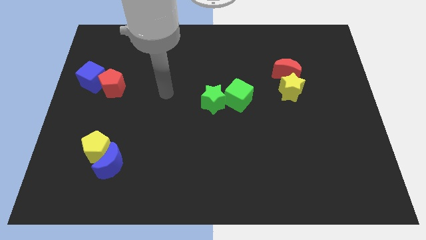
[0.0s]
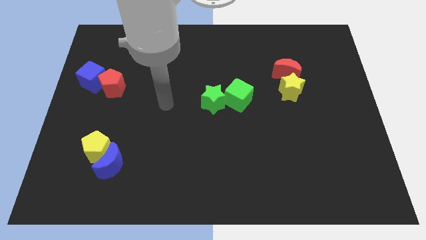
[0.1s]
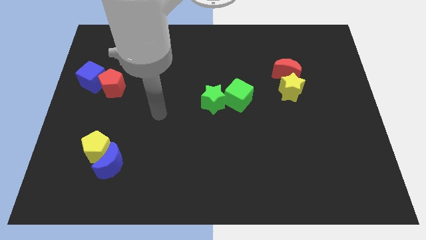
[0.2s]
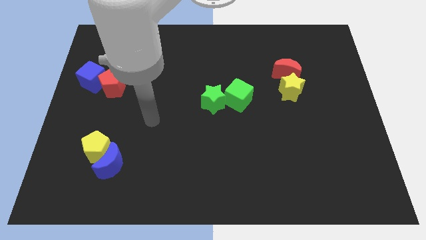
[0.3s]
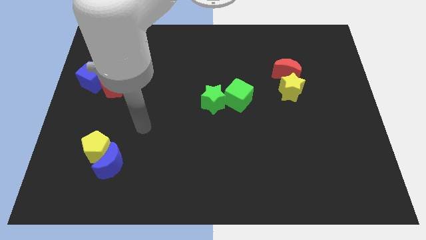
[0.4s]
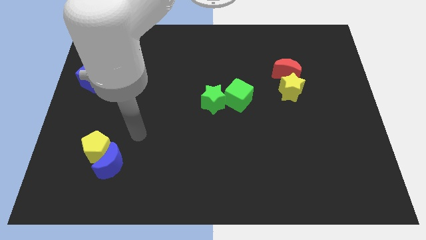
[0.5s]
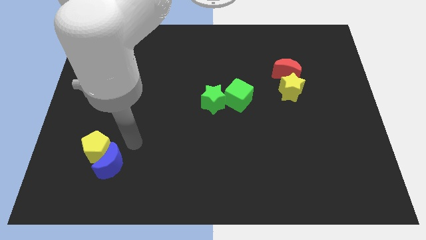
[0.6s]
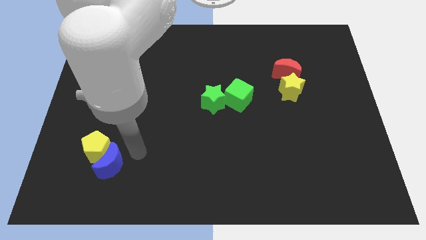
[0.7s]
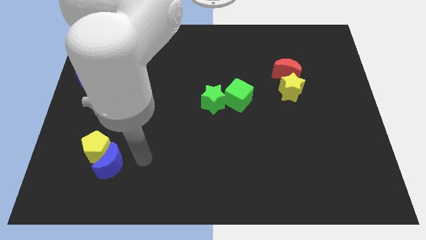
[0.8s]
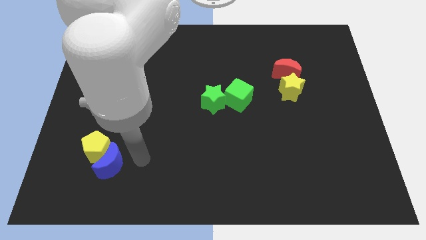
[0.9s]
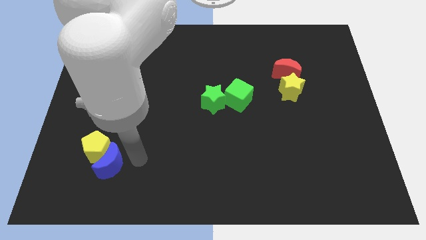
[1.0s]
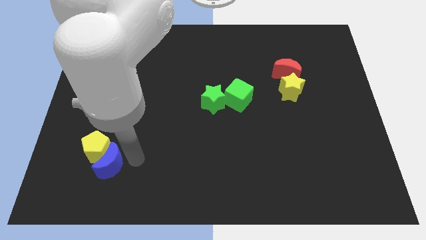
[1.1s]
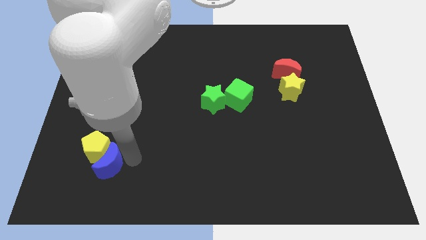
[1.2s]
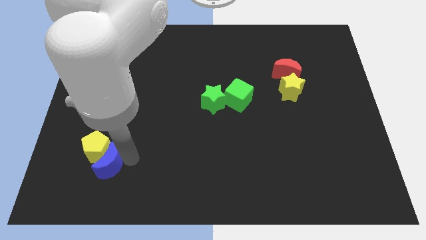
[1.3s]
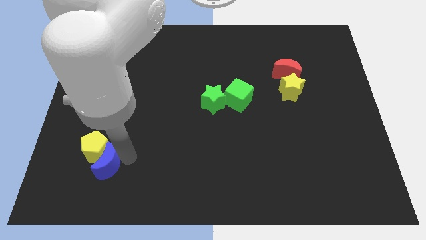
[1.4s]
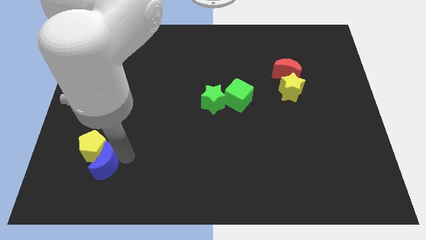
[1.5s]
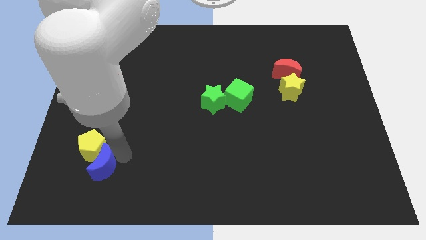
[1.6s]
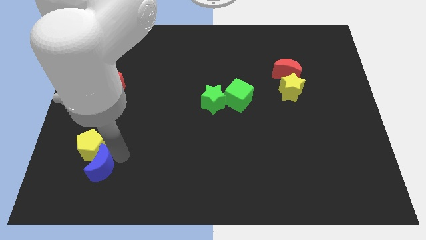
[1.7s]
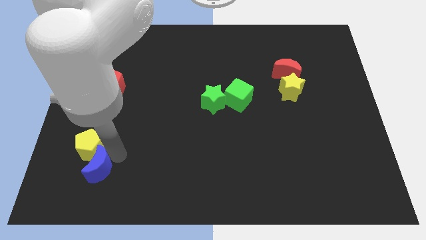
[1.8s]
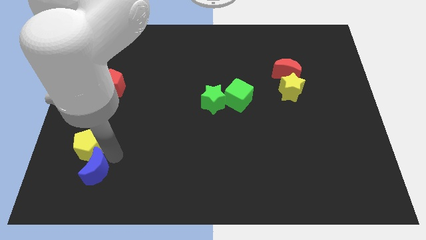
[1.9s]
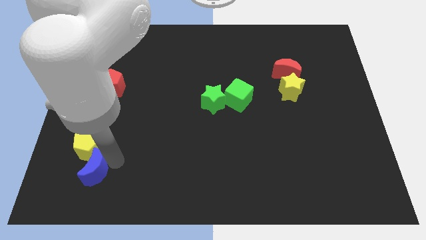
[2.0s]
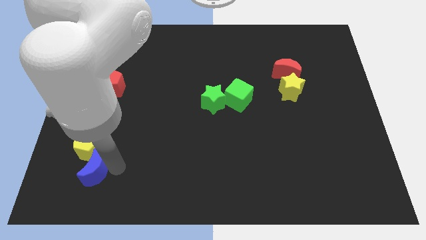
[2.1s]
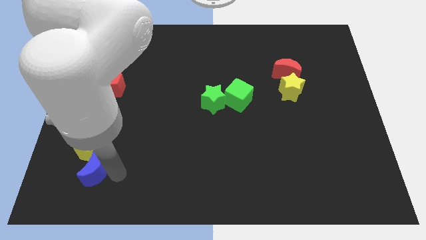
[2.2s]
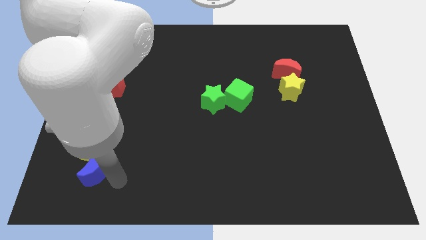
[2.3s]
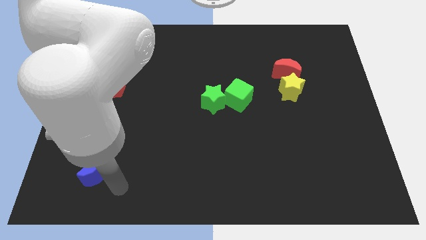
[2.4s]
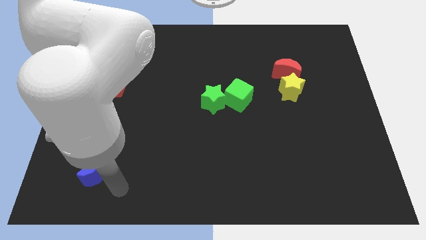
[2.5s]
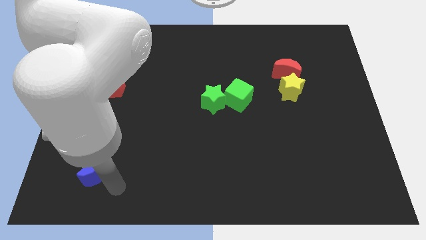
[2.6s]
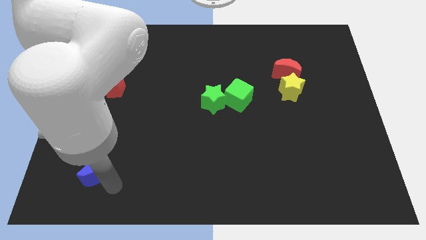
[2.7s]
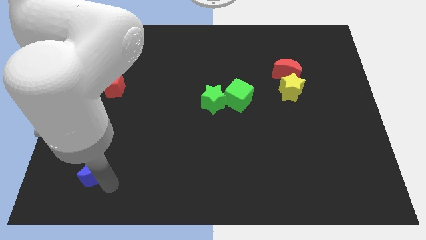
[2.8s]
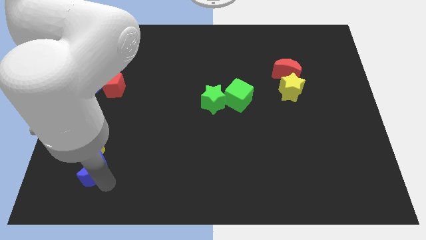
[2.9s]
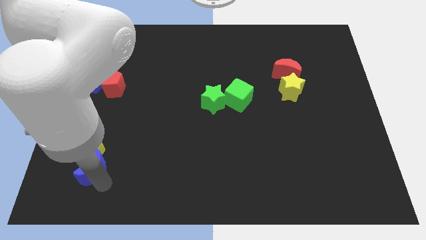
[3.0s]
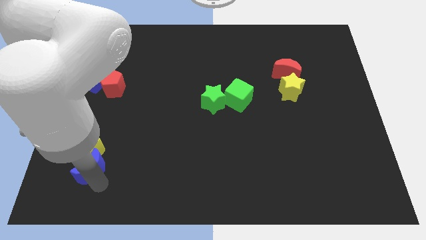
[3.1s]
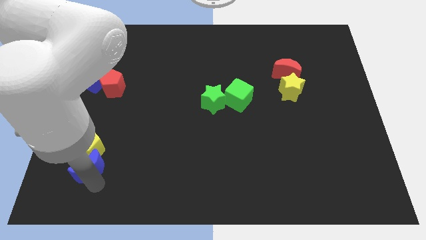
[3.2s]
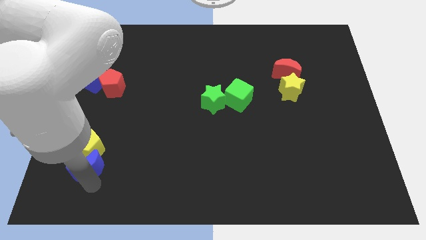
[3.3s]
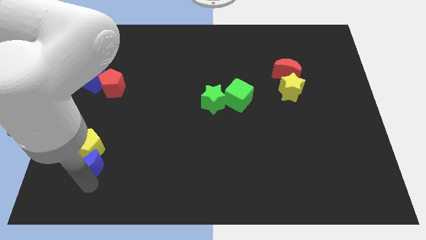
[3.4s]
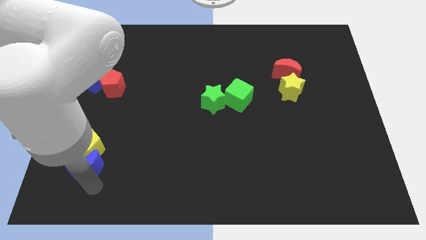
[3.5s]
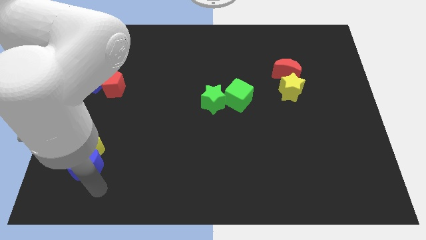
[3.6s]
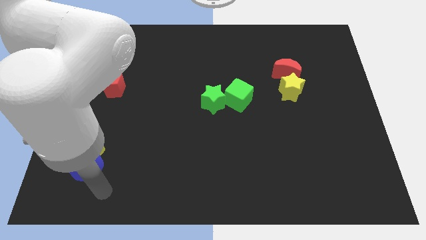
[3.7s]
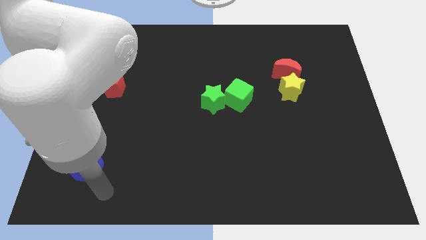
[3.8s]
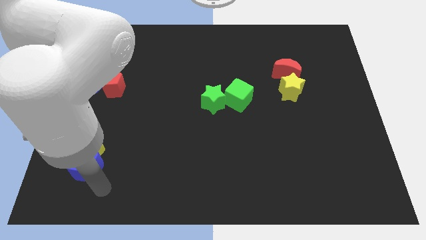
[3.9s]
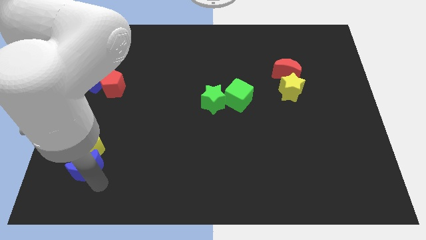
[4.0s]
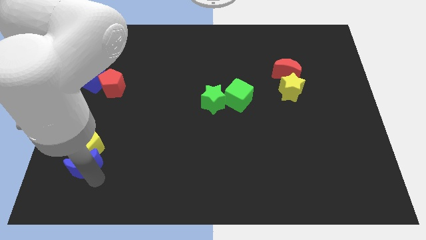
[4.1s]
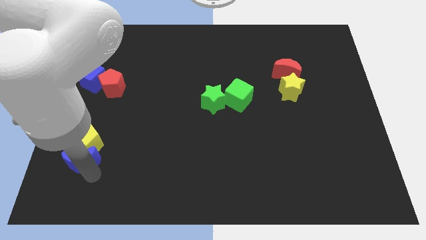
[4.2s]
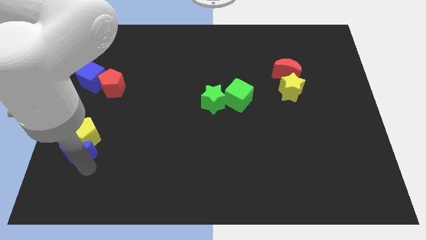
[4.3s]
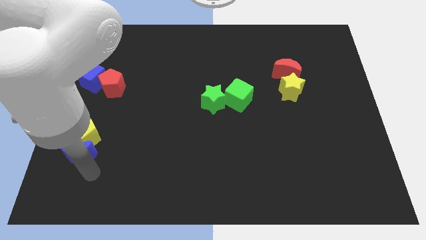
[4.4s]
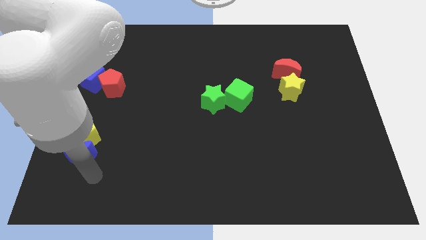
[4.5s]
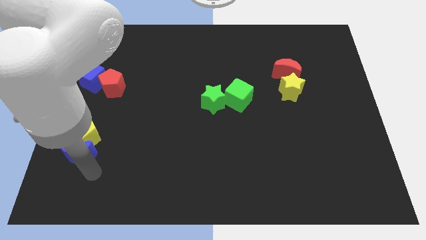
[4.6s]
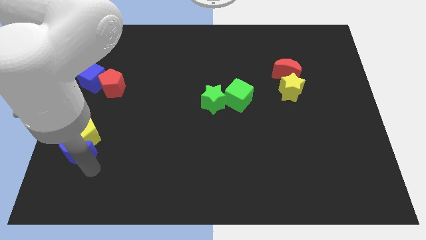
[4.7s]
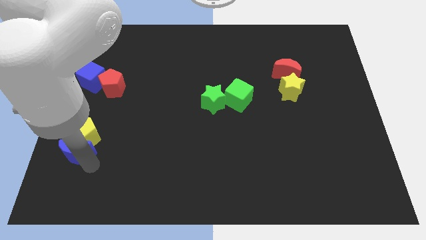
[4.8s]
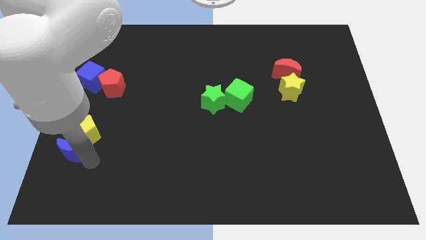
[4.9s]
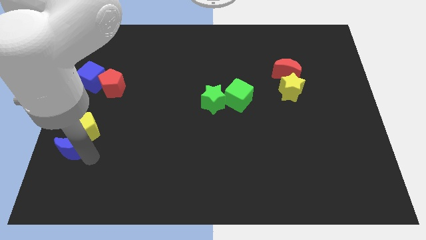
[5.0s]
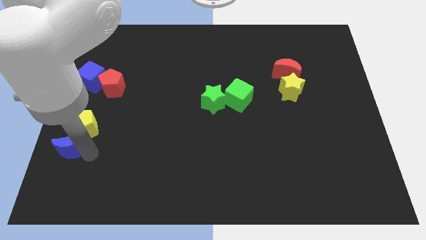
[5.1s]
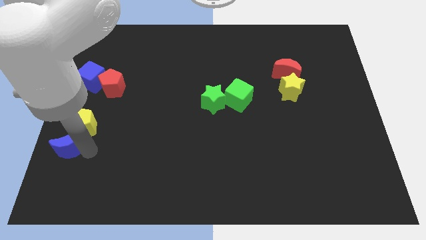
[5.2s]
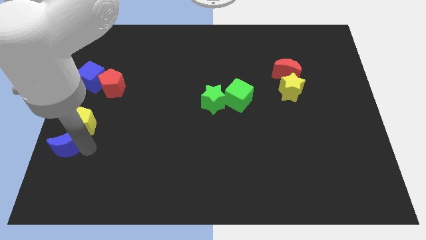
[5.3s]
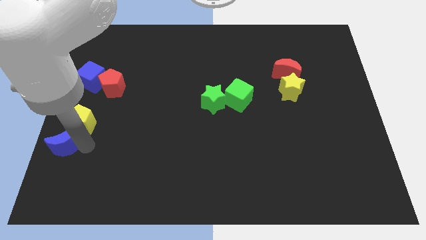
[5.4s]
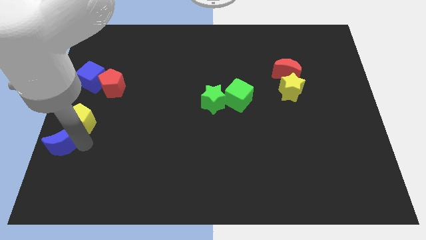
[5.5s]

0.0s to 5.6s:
put the blue moon to the left side of the board
